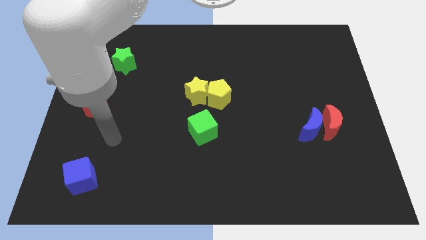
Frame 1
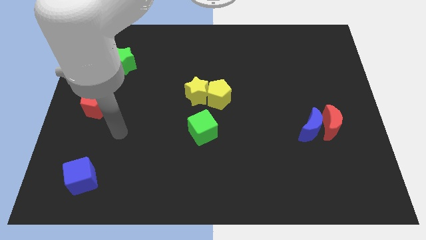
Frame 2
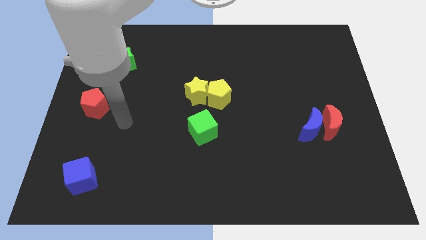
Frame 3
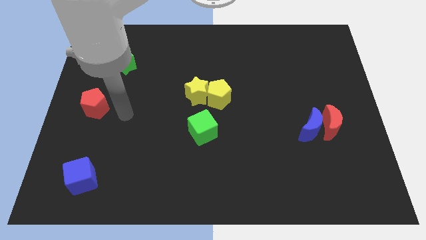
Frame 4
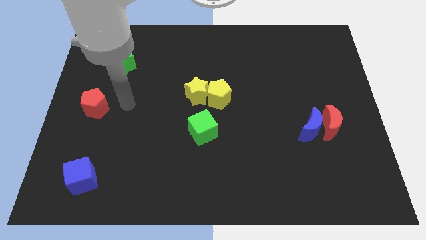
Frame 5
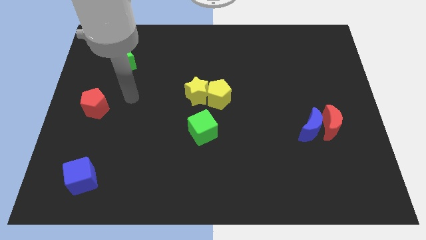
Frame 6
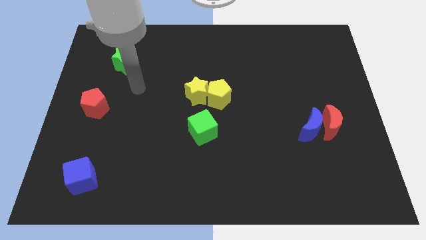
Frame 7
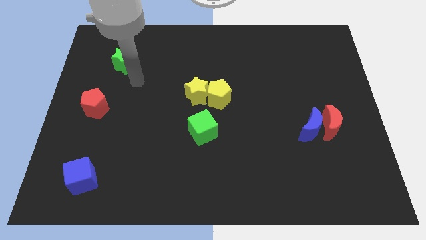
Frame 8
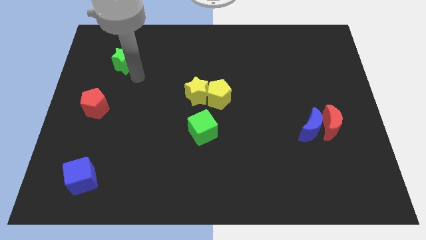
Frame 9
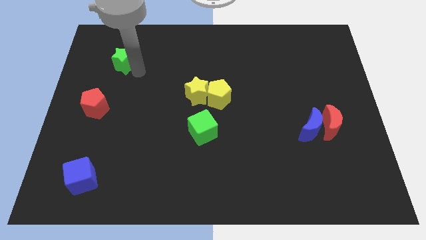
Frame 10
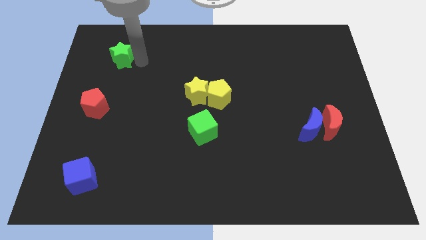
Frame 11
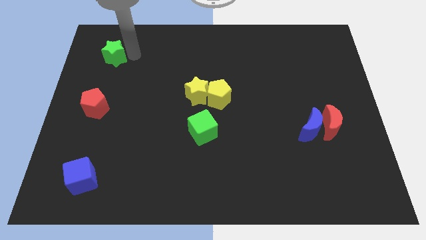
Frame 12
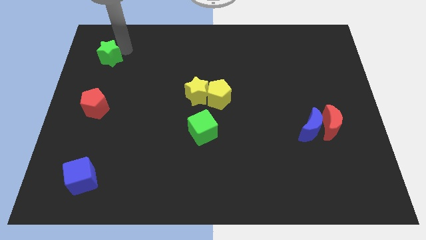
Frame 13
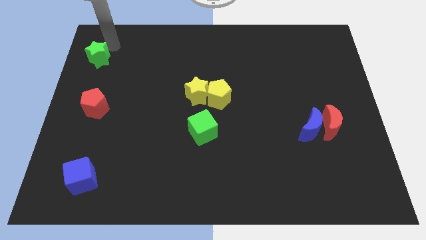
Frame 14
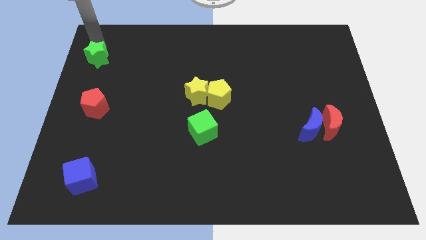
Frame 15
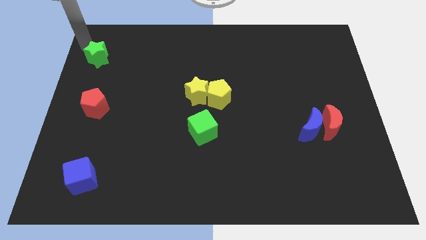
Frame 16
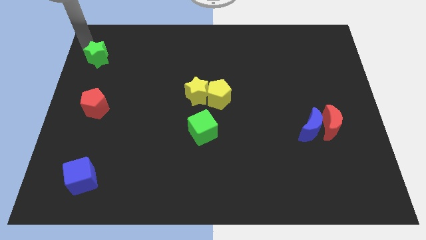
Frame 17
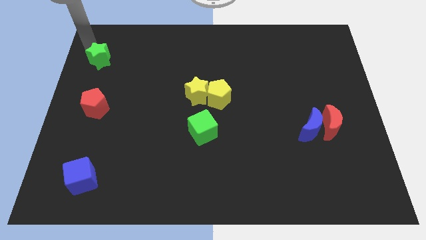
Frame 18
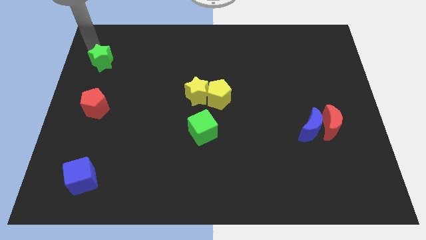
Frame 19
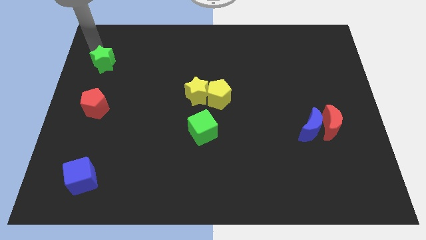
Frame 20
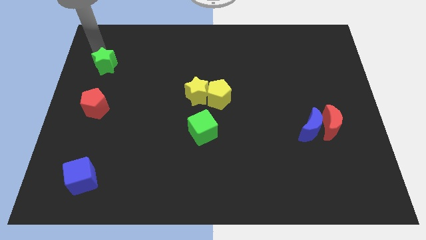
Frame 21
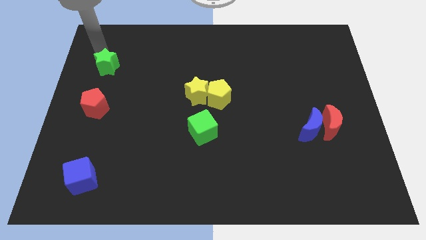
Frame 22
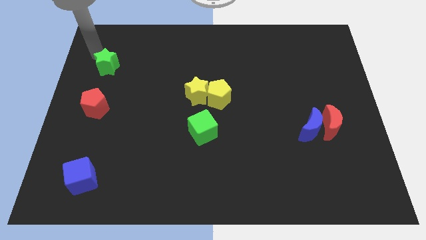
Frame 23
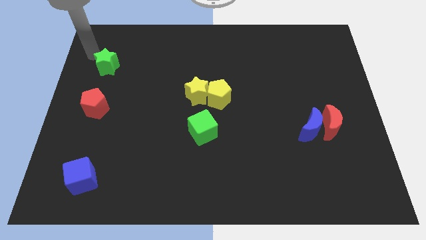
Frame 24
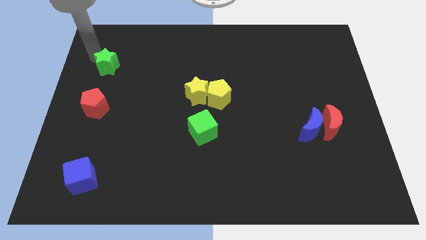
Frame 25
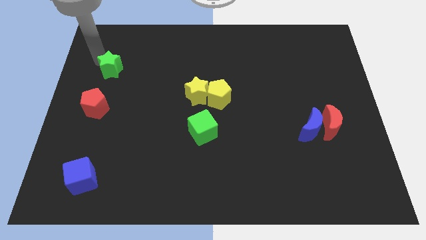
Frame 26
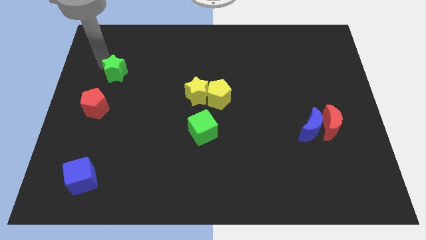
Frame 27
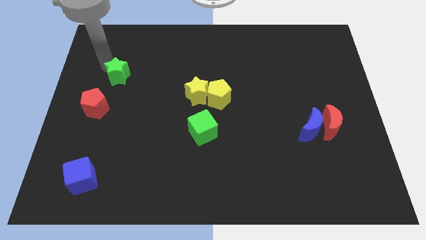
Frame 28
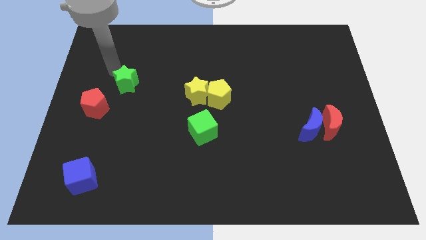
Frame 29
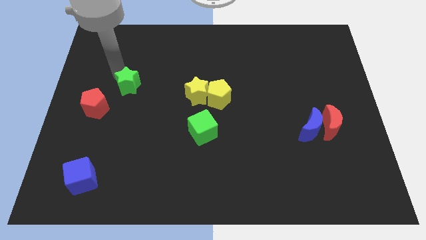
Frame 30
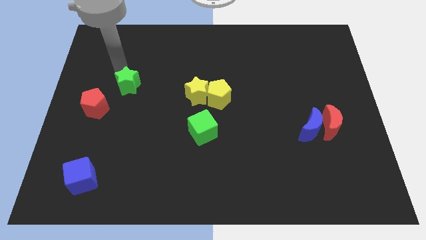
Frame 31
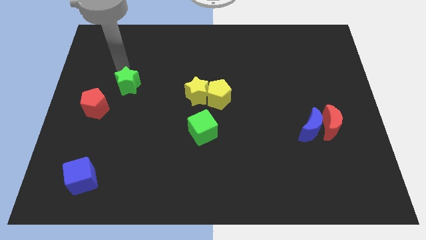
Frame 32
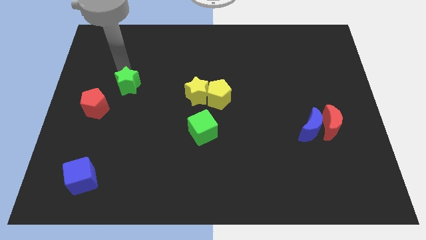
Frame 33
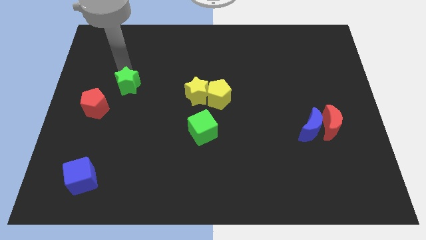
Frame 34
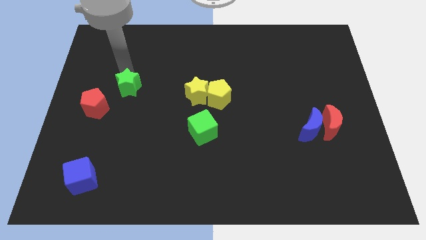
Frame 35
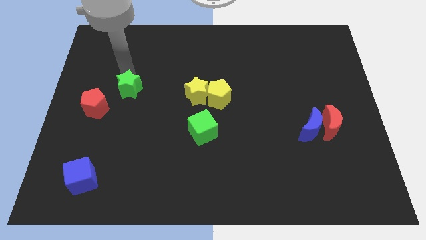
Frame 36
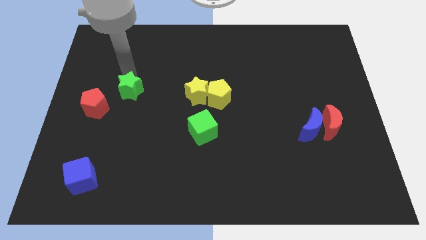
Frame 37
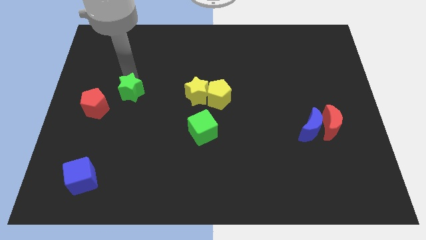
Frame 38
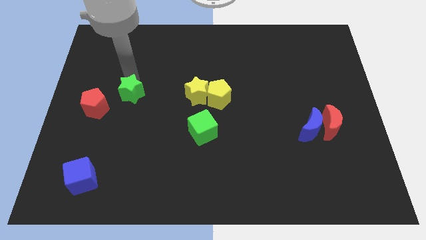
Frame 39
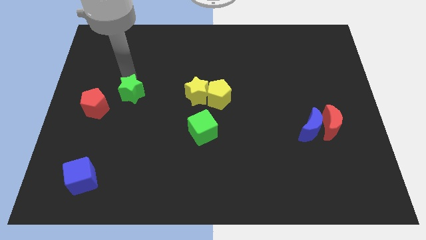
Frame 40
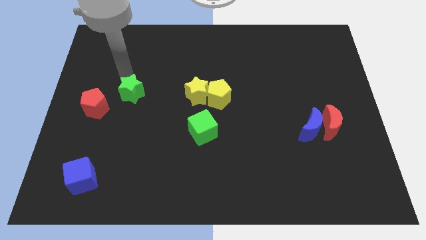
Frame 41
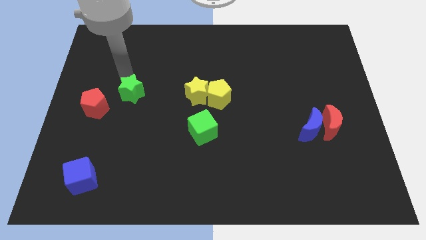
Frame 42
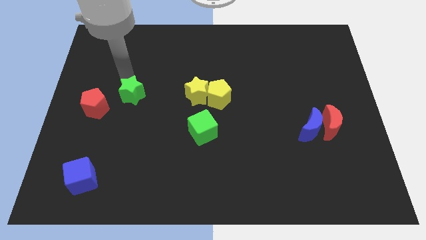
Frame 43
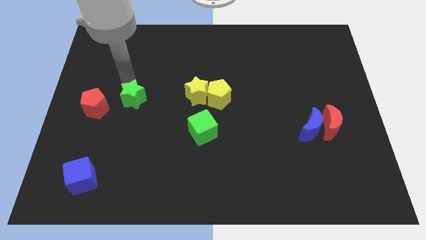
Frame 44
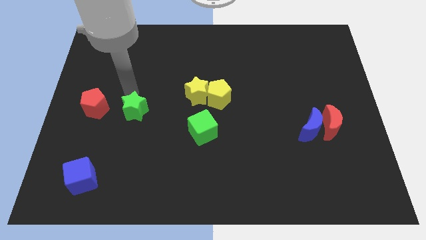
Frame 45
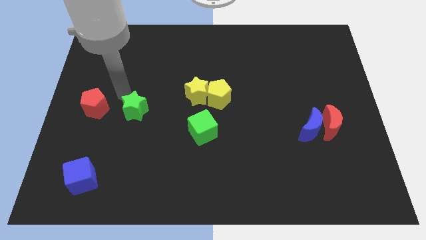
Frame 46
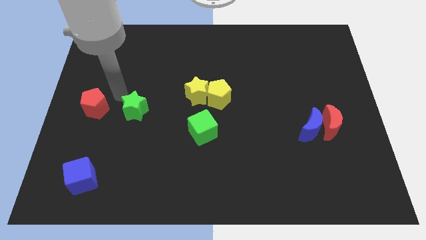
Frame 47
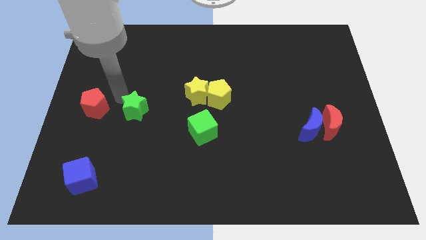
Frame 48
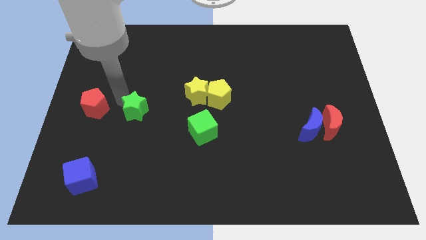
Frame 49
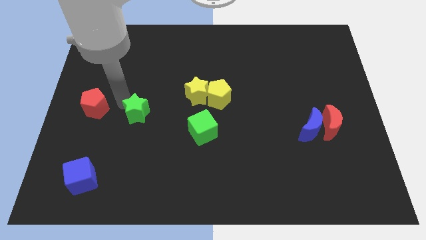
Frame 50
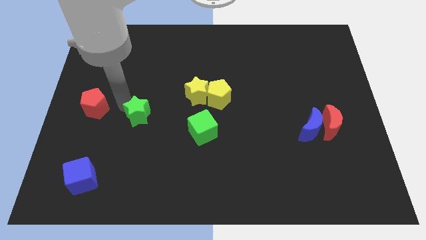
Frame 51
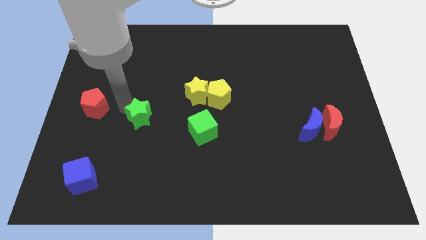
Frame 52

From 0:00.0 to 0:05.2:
push the green star to the left of the green cube
